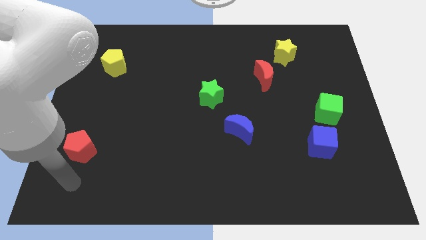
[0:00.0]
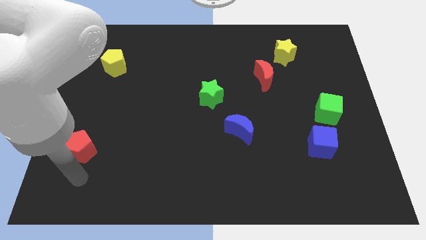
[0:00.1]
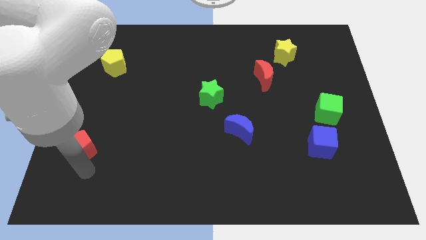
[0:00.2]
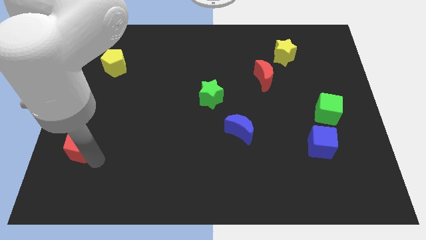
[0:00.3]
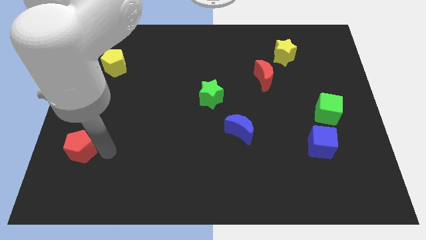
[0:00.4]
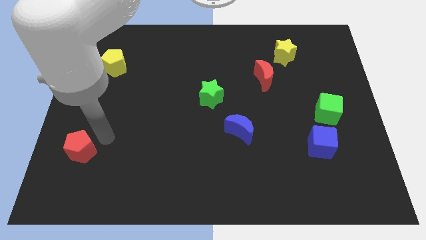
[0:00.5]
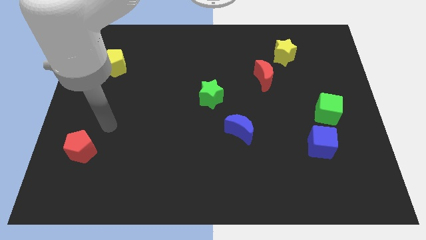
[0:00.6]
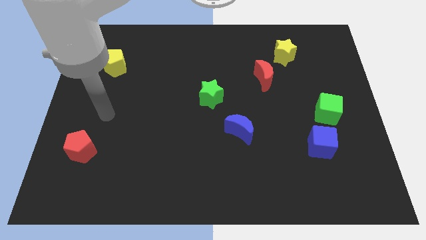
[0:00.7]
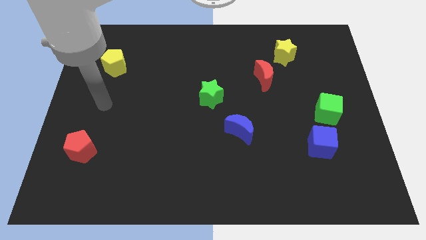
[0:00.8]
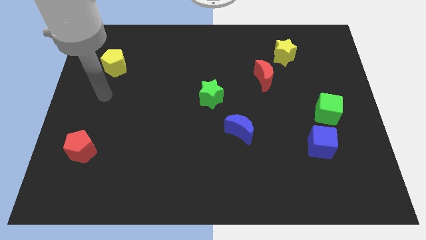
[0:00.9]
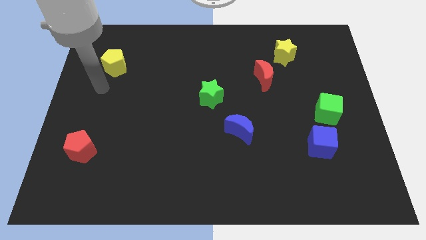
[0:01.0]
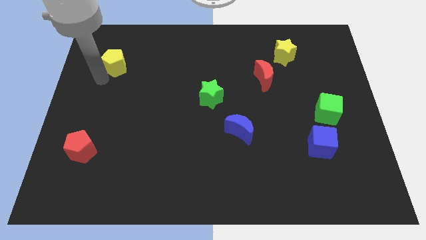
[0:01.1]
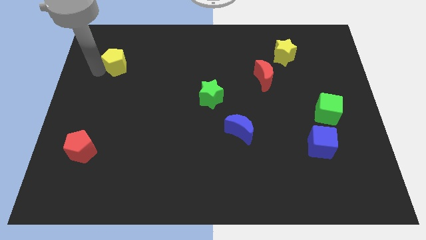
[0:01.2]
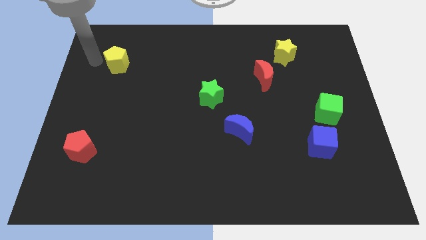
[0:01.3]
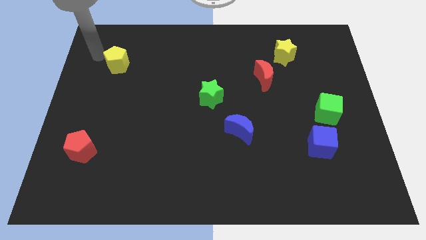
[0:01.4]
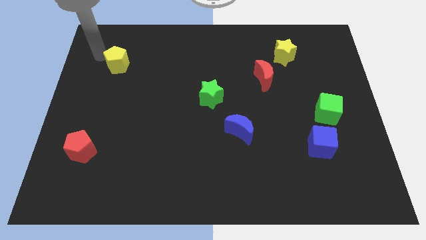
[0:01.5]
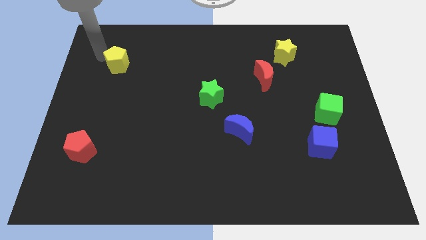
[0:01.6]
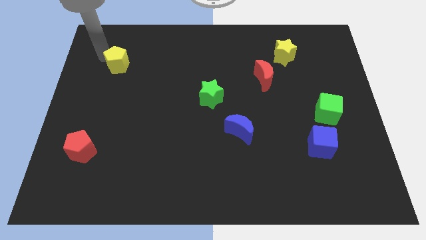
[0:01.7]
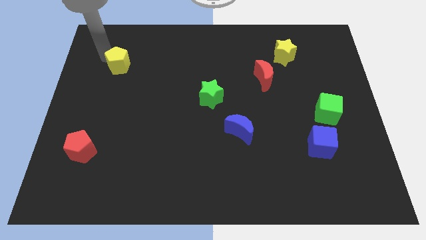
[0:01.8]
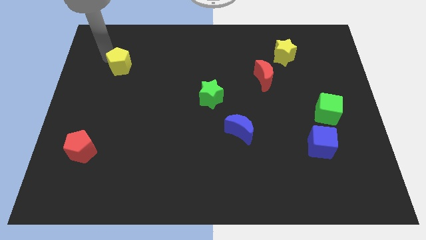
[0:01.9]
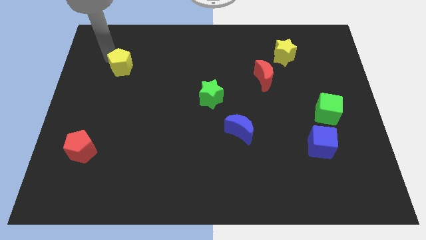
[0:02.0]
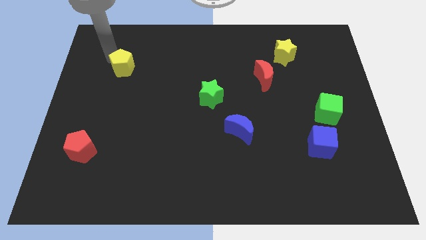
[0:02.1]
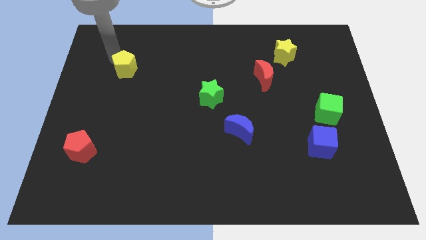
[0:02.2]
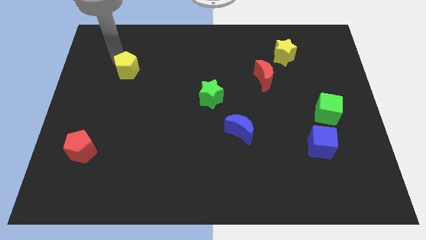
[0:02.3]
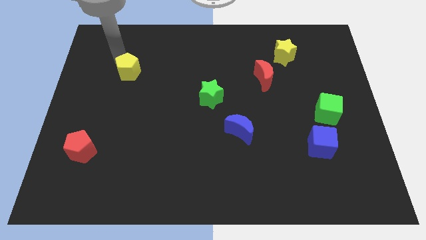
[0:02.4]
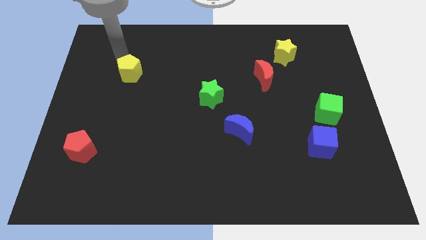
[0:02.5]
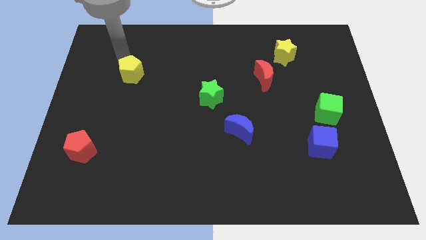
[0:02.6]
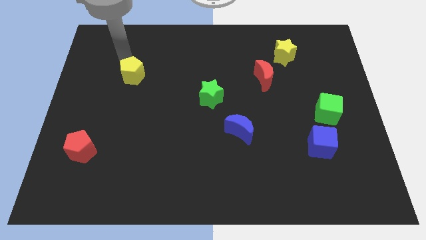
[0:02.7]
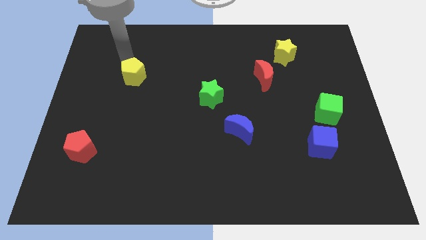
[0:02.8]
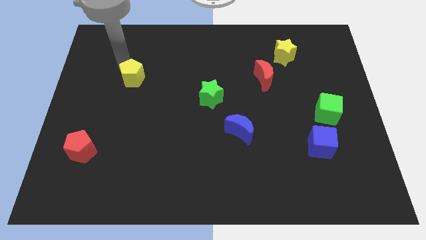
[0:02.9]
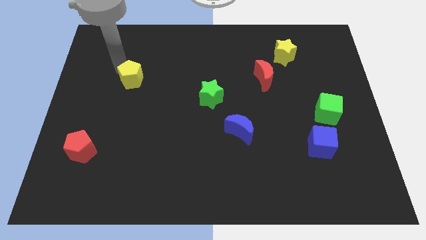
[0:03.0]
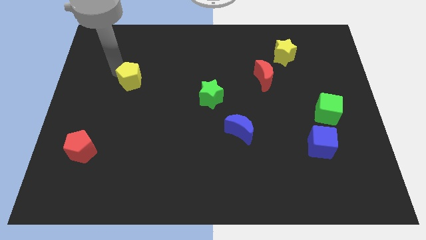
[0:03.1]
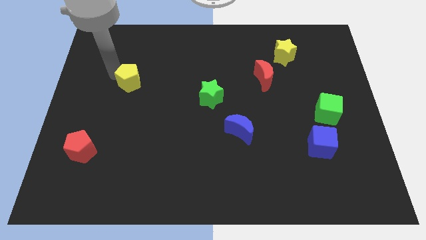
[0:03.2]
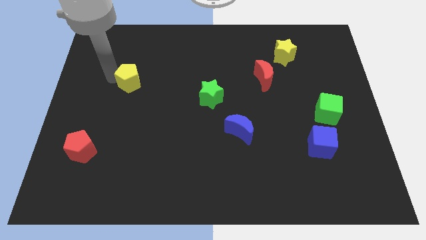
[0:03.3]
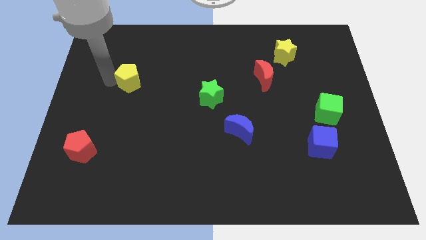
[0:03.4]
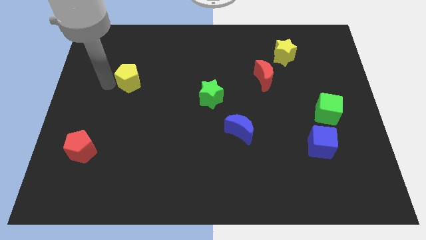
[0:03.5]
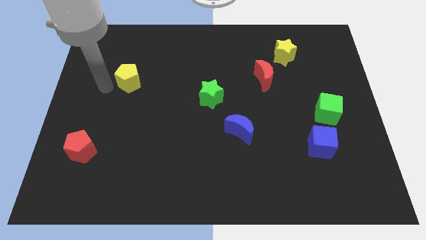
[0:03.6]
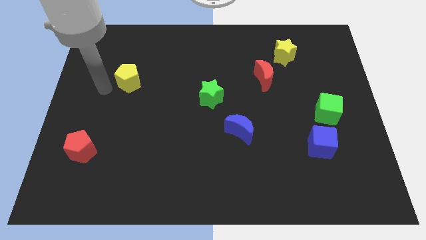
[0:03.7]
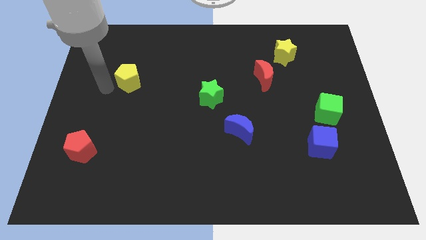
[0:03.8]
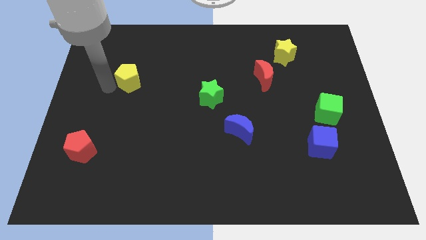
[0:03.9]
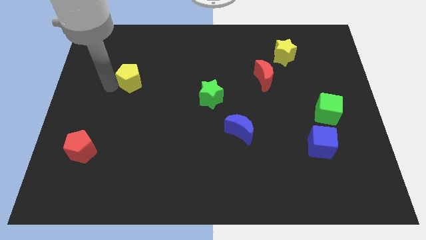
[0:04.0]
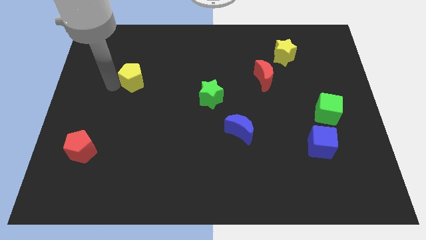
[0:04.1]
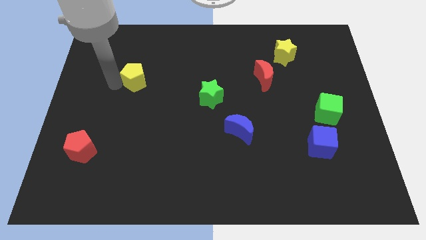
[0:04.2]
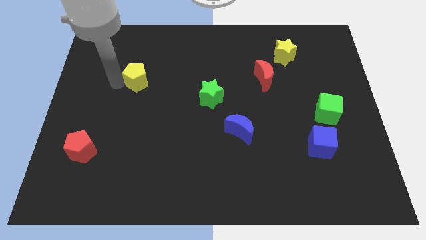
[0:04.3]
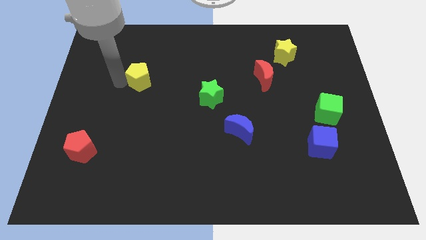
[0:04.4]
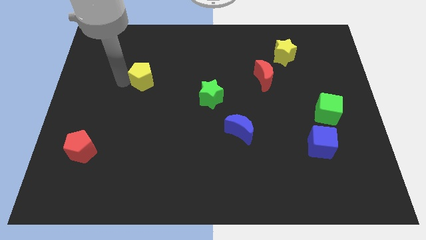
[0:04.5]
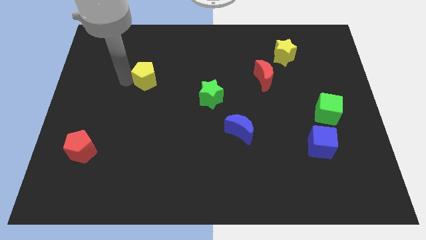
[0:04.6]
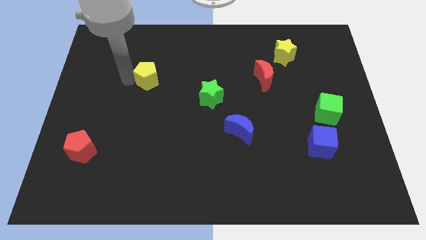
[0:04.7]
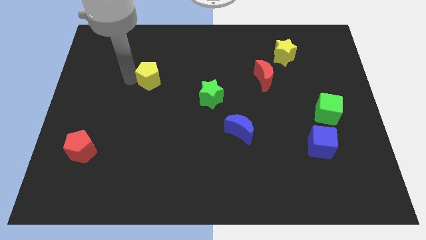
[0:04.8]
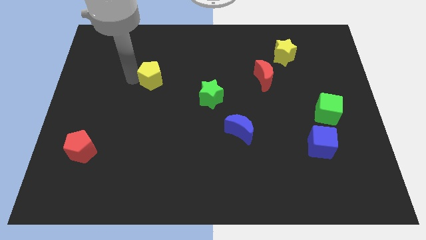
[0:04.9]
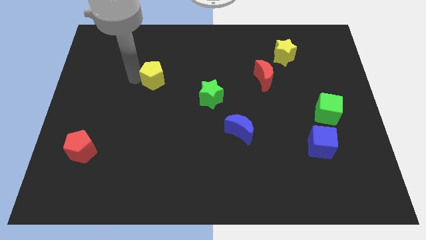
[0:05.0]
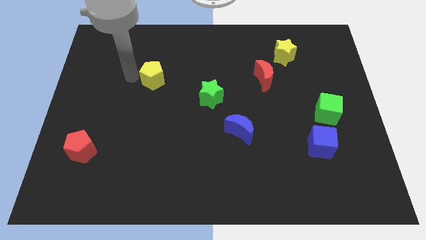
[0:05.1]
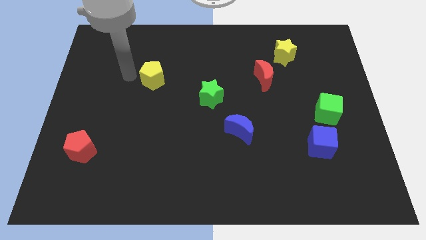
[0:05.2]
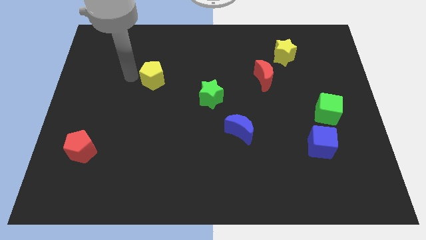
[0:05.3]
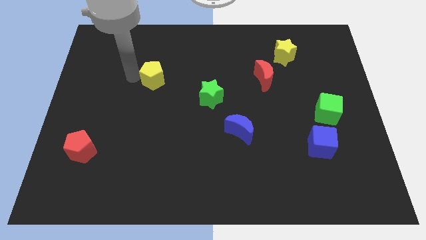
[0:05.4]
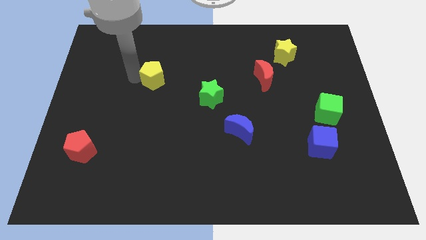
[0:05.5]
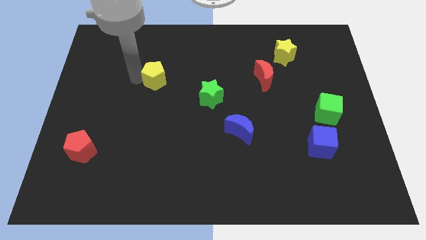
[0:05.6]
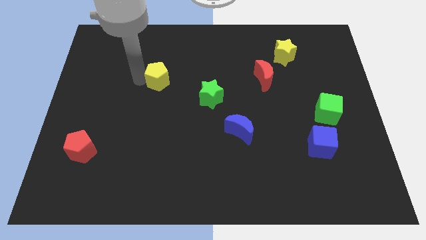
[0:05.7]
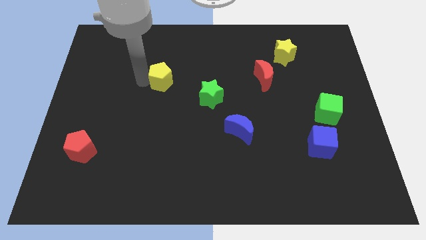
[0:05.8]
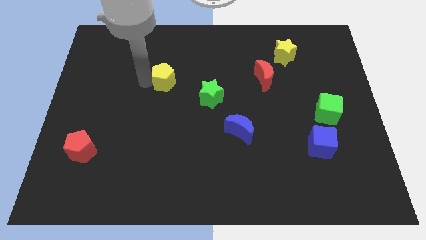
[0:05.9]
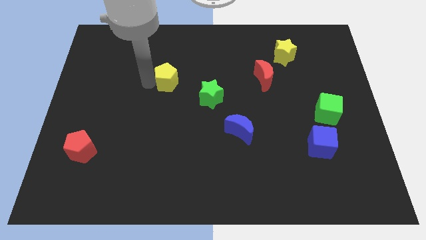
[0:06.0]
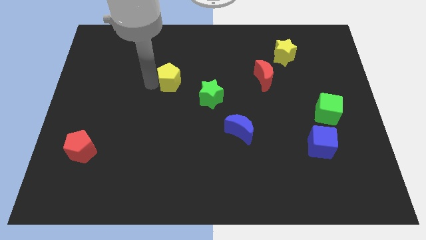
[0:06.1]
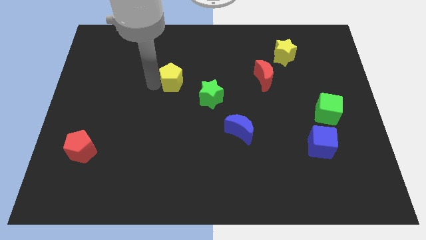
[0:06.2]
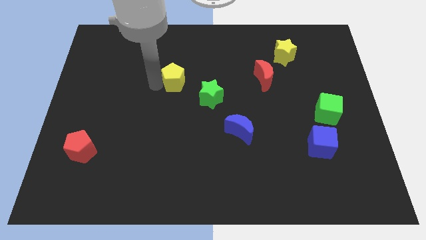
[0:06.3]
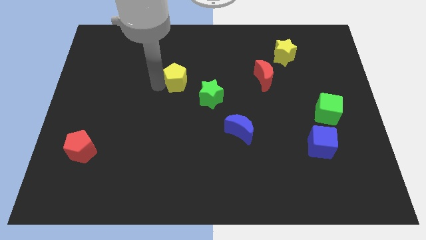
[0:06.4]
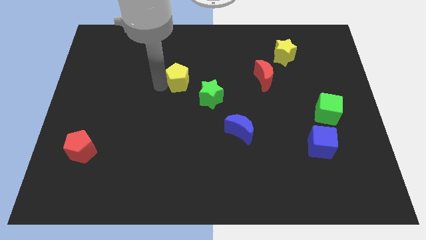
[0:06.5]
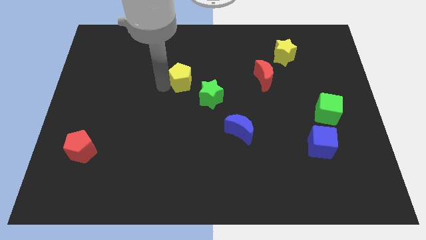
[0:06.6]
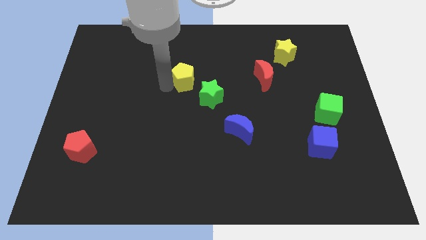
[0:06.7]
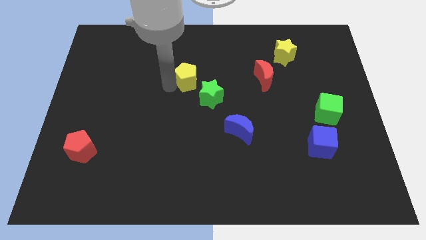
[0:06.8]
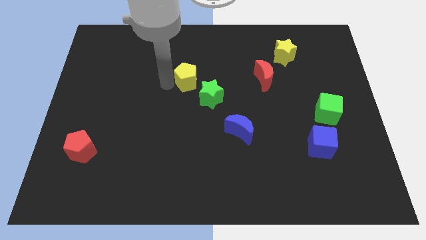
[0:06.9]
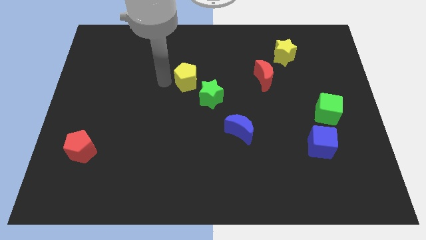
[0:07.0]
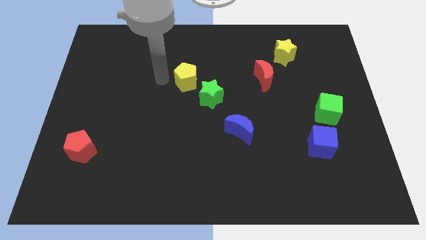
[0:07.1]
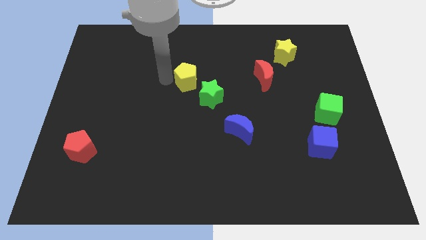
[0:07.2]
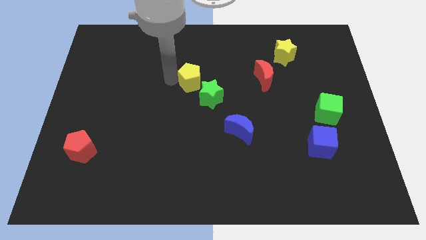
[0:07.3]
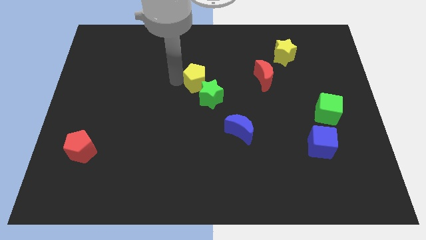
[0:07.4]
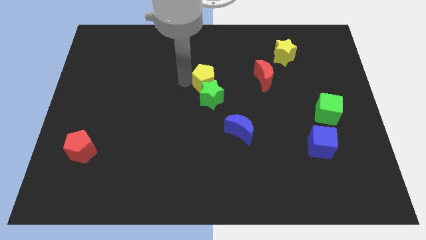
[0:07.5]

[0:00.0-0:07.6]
slide the yellow pentagon to the top right side of the green star
